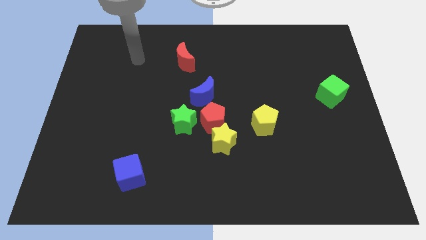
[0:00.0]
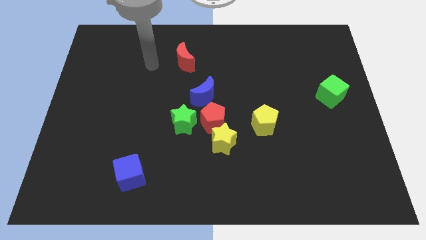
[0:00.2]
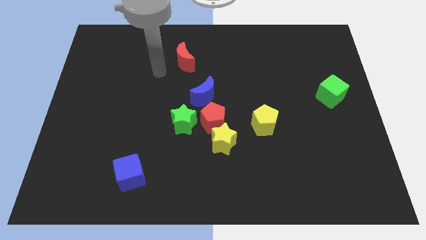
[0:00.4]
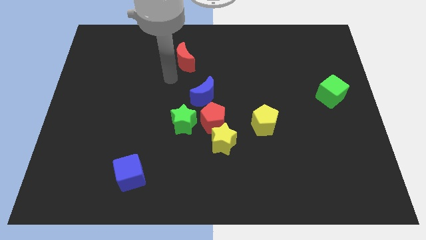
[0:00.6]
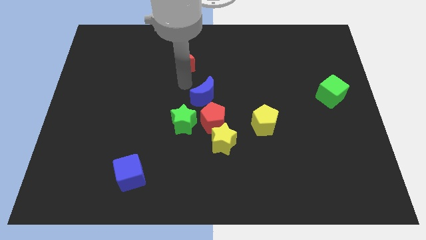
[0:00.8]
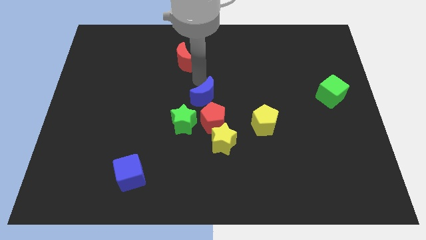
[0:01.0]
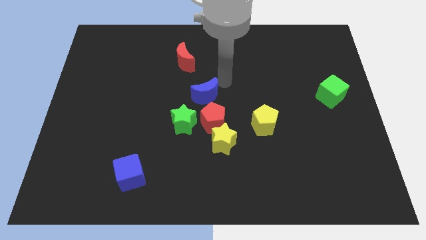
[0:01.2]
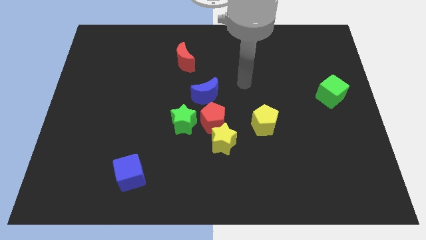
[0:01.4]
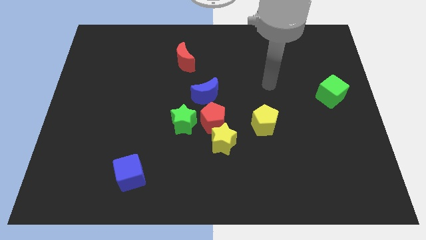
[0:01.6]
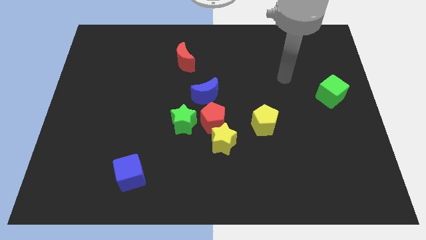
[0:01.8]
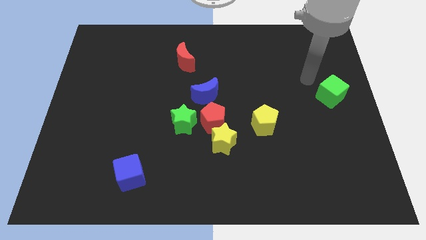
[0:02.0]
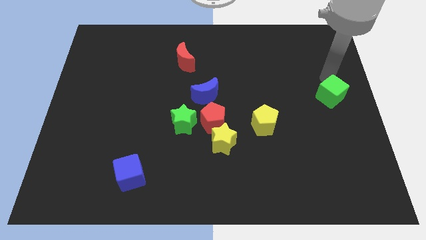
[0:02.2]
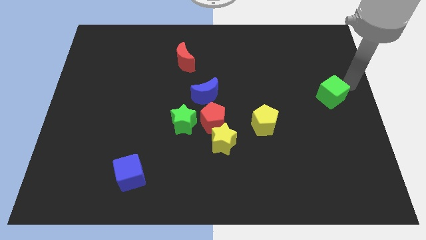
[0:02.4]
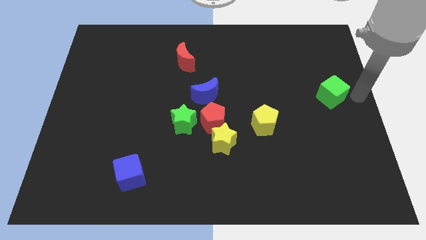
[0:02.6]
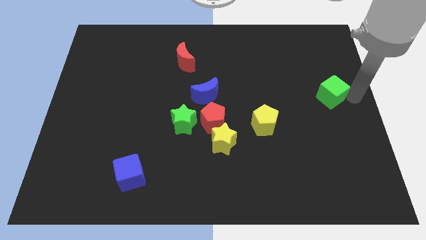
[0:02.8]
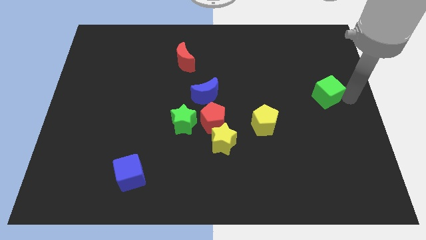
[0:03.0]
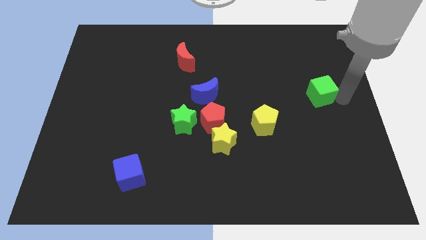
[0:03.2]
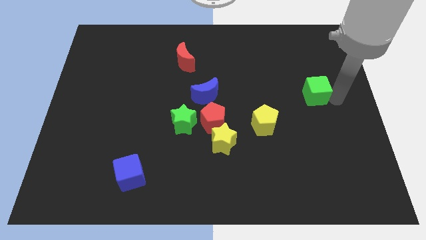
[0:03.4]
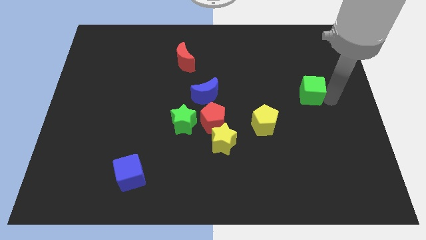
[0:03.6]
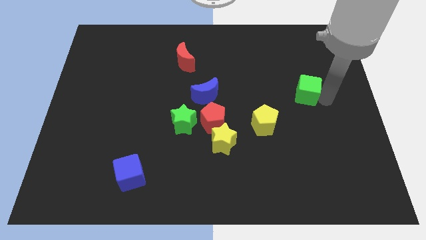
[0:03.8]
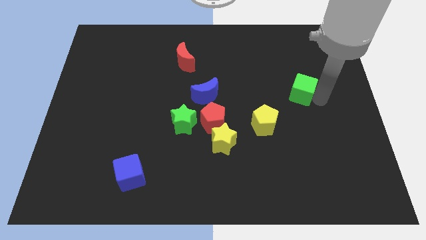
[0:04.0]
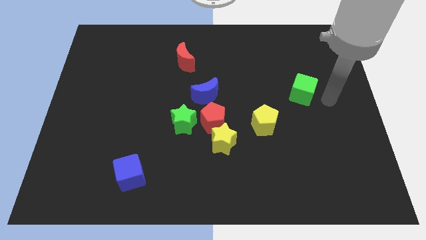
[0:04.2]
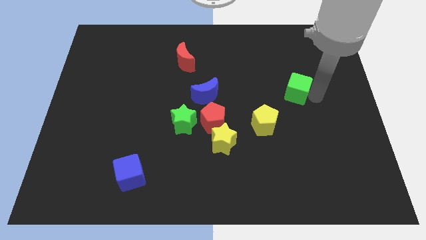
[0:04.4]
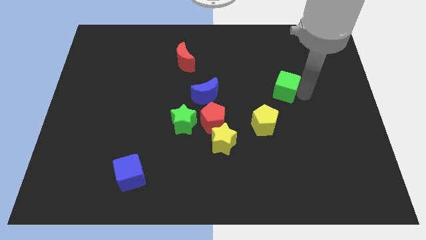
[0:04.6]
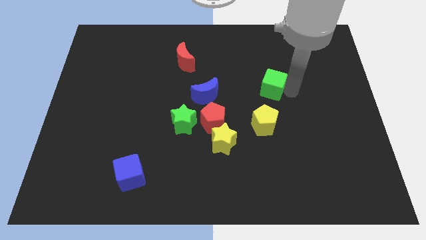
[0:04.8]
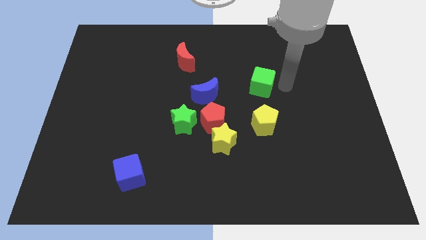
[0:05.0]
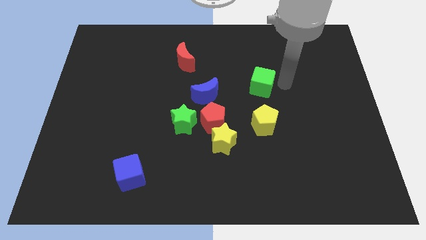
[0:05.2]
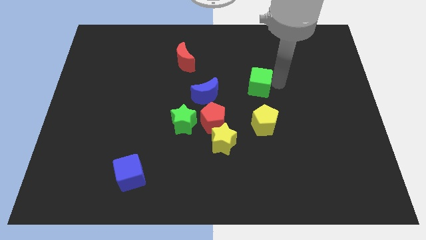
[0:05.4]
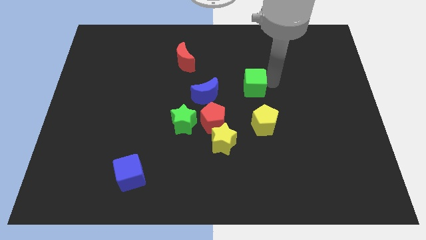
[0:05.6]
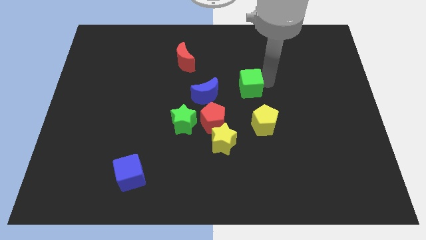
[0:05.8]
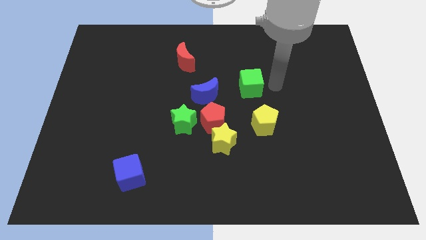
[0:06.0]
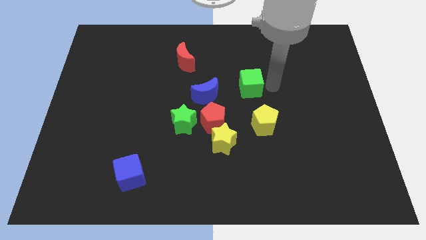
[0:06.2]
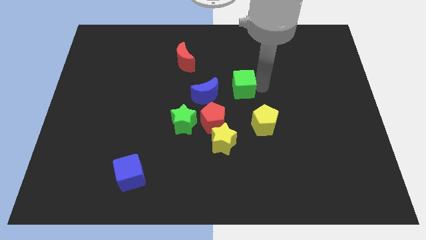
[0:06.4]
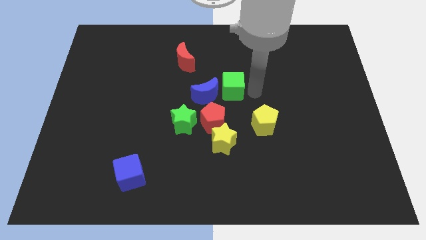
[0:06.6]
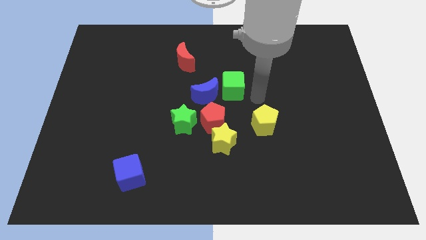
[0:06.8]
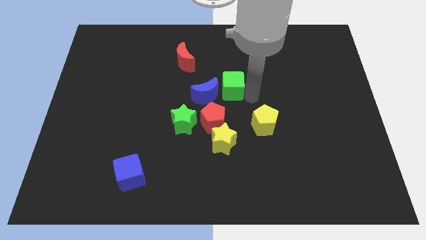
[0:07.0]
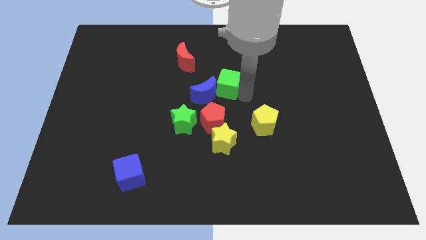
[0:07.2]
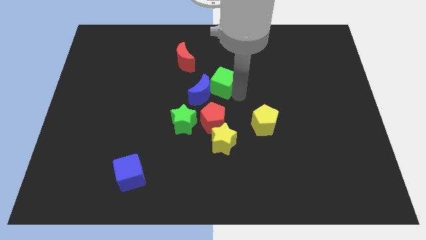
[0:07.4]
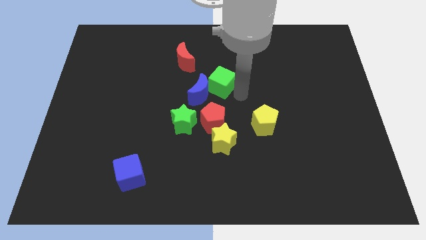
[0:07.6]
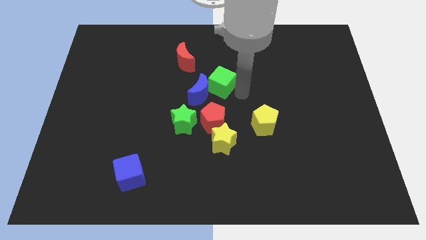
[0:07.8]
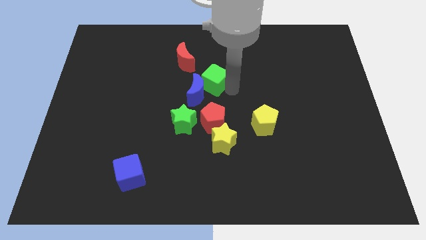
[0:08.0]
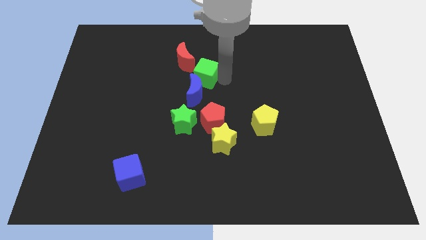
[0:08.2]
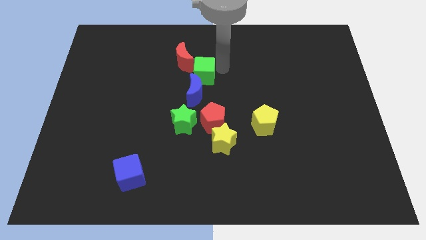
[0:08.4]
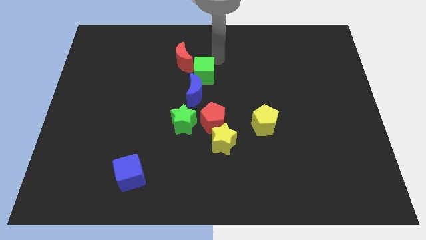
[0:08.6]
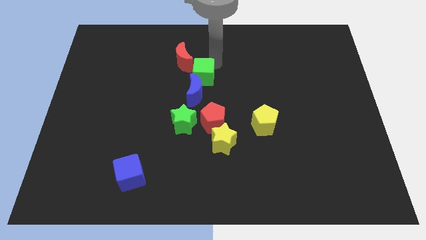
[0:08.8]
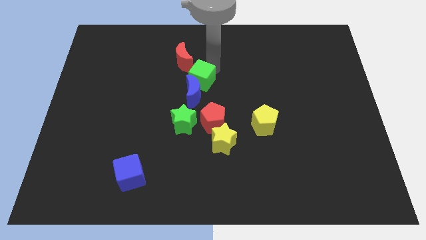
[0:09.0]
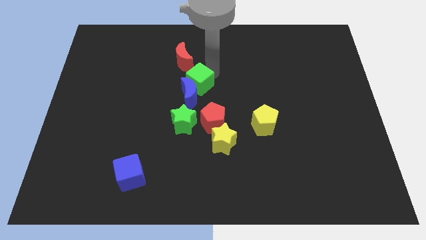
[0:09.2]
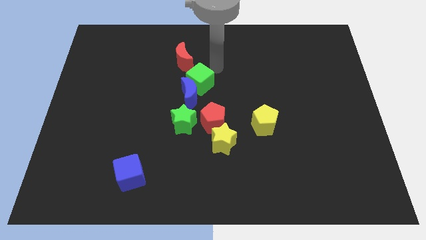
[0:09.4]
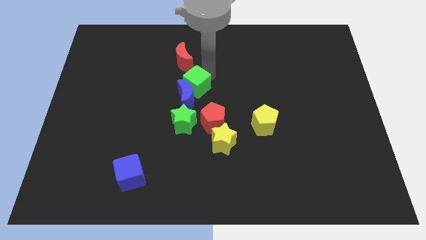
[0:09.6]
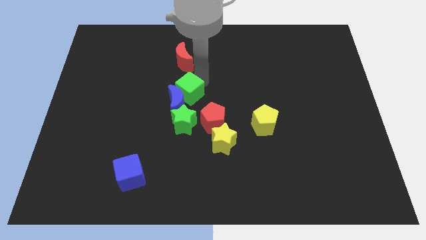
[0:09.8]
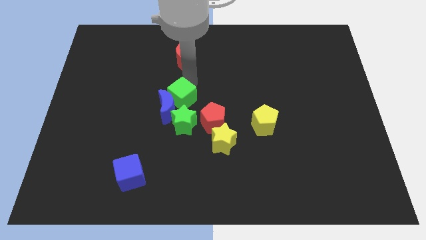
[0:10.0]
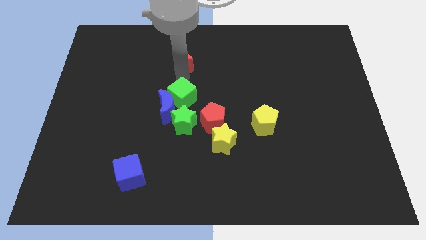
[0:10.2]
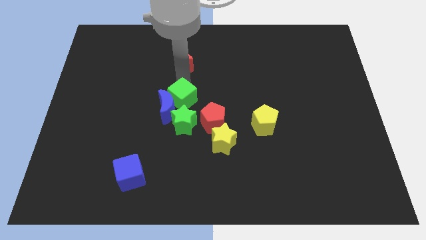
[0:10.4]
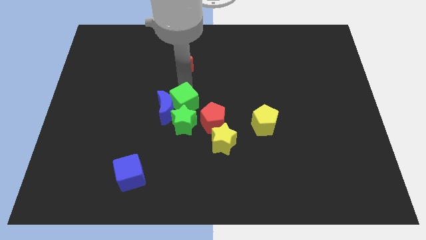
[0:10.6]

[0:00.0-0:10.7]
put the green cube to the green star

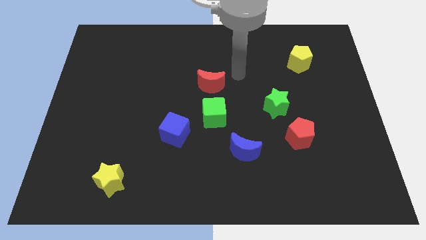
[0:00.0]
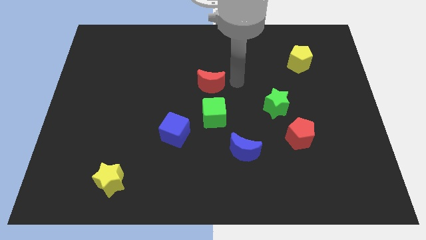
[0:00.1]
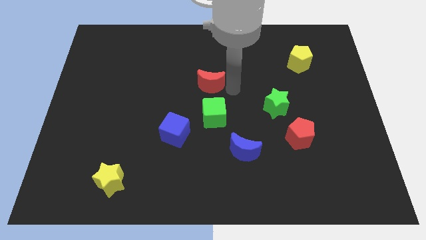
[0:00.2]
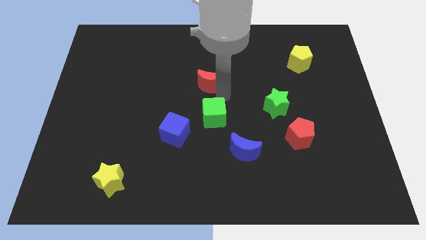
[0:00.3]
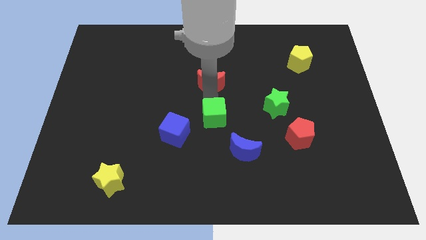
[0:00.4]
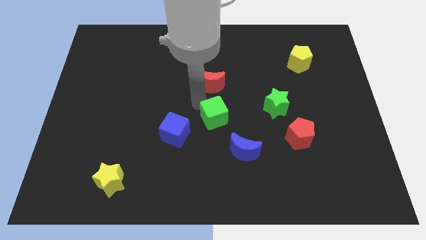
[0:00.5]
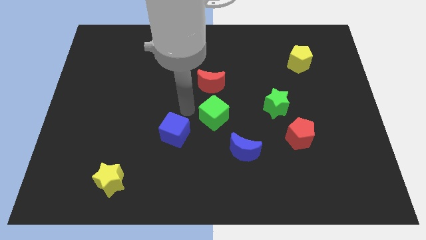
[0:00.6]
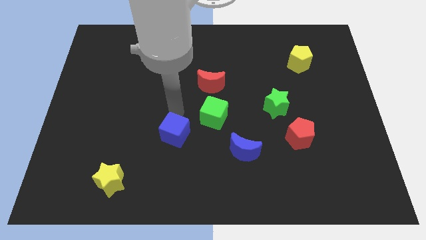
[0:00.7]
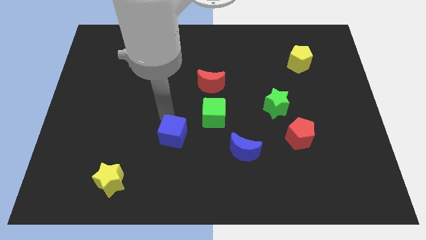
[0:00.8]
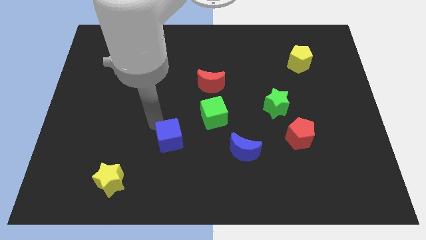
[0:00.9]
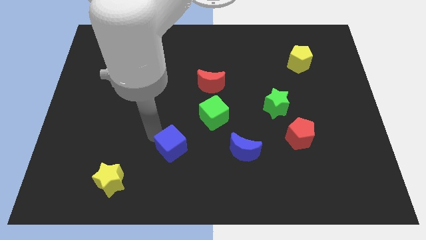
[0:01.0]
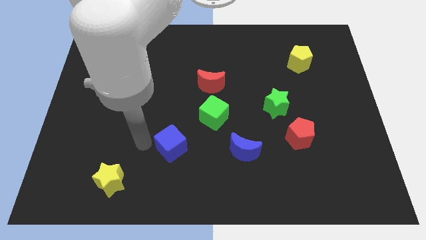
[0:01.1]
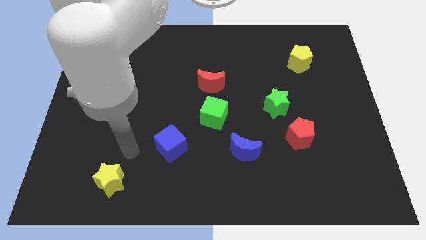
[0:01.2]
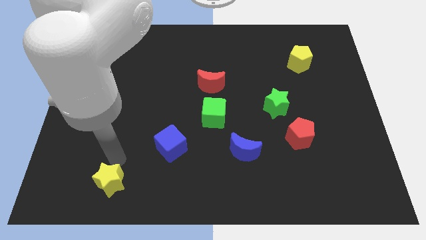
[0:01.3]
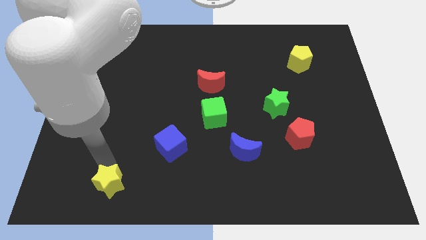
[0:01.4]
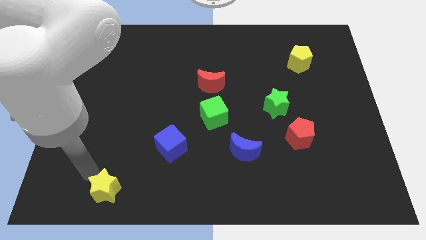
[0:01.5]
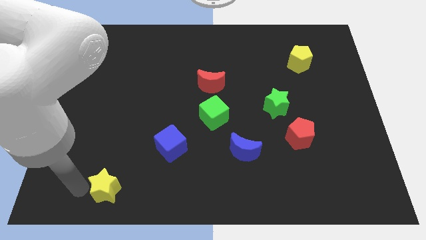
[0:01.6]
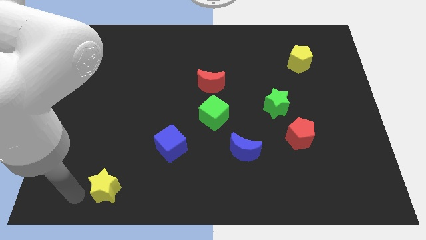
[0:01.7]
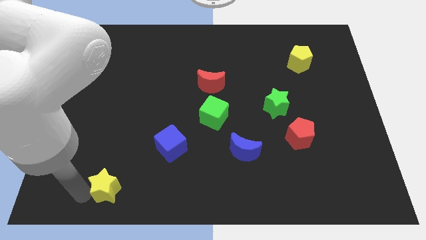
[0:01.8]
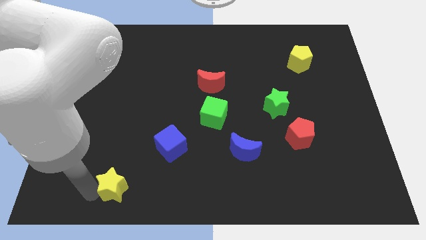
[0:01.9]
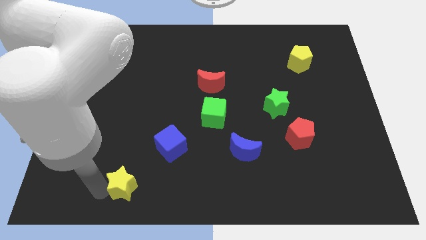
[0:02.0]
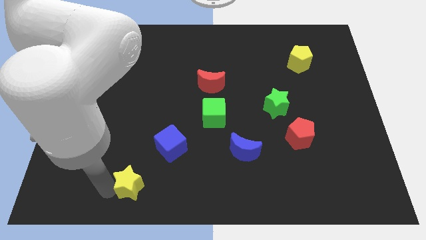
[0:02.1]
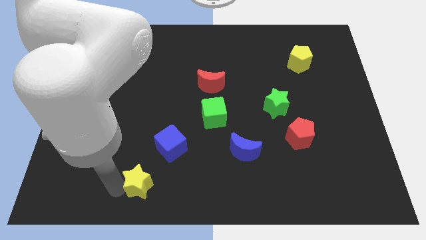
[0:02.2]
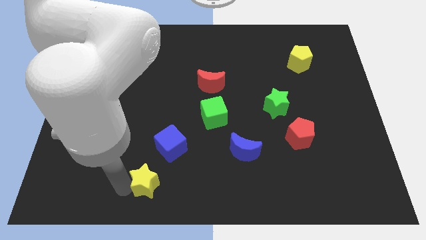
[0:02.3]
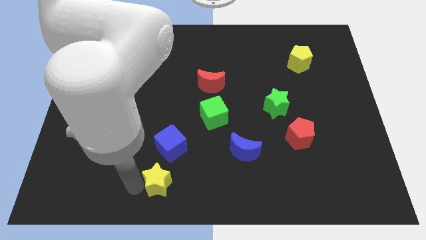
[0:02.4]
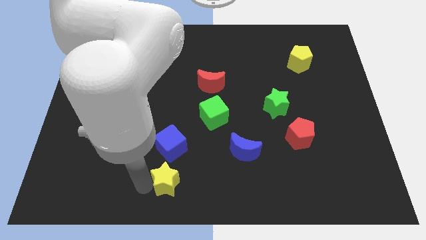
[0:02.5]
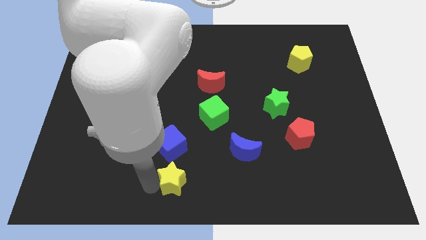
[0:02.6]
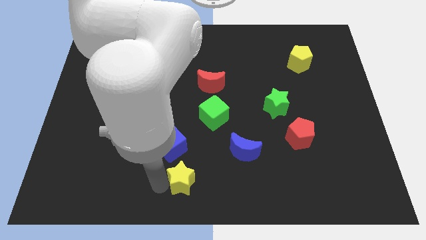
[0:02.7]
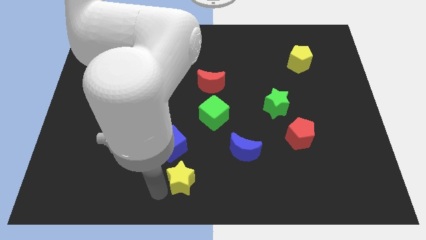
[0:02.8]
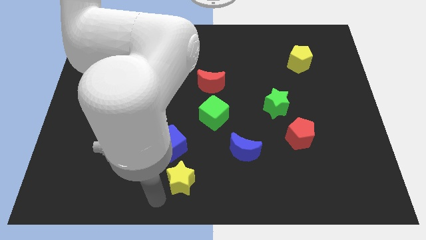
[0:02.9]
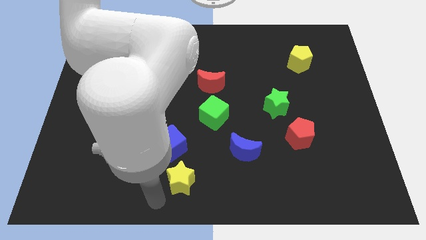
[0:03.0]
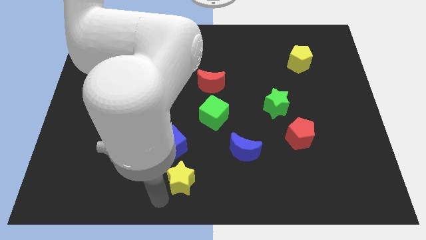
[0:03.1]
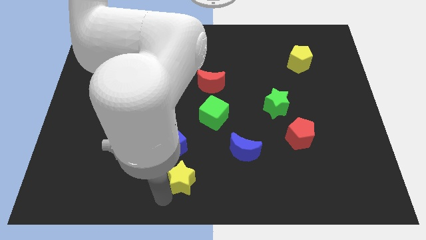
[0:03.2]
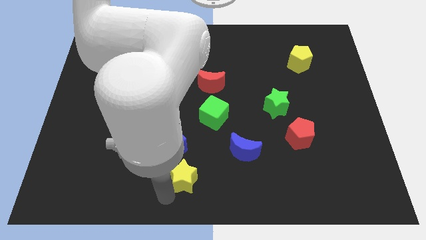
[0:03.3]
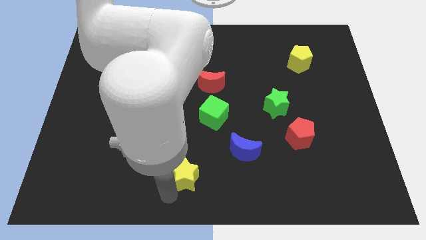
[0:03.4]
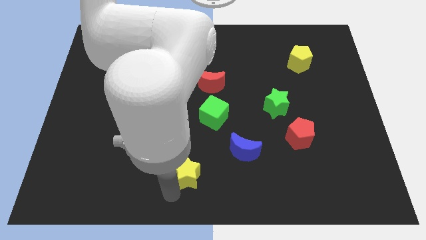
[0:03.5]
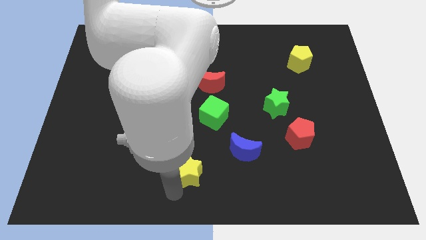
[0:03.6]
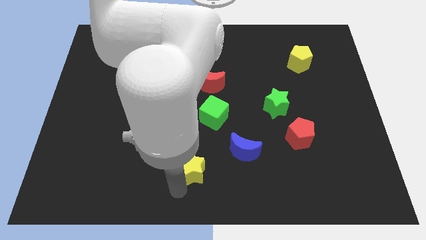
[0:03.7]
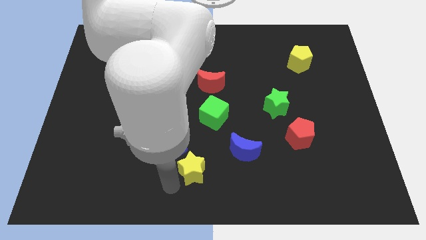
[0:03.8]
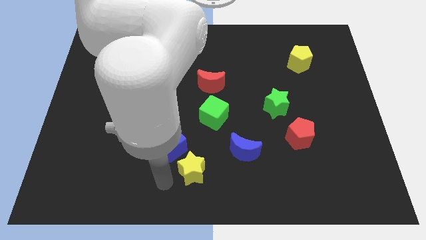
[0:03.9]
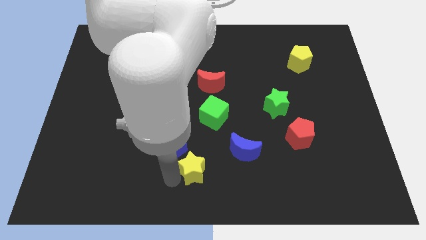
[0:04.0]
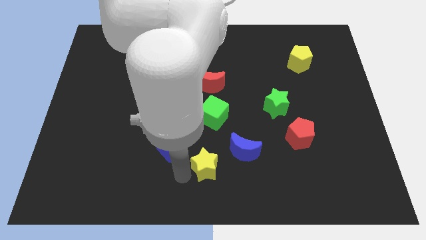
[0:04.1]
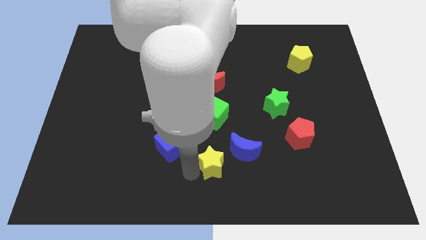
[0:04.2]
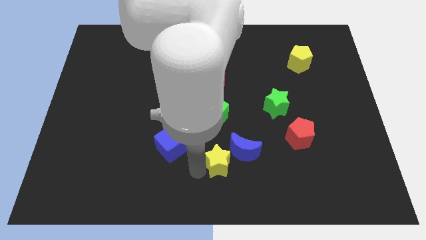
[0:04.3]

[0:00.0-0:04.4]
slide the yellow star next to the blue moon
